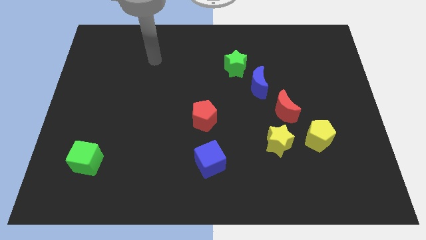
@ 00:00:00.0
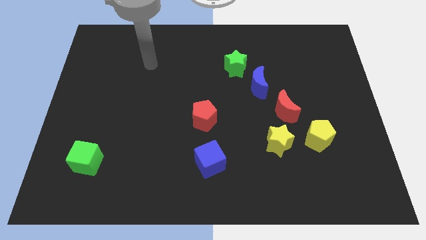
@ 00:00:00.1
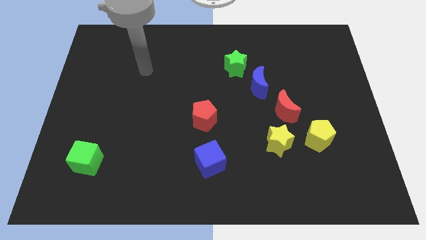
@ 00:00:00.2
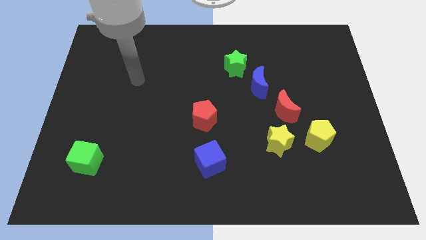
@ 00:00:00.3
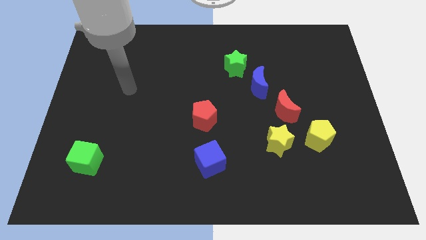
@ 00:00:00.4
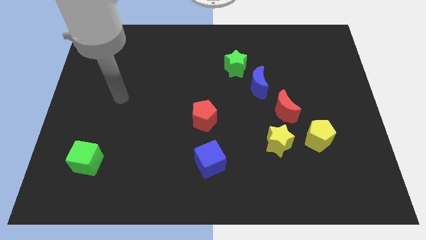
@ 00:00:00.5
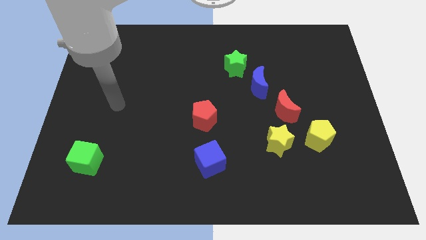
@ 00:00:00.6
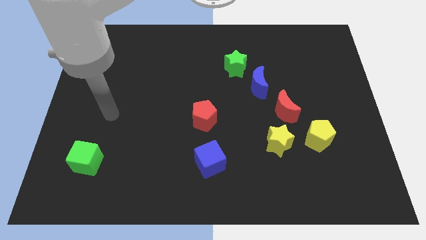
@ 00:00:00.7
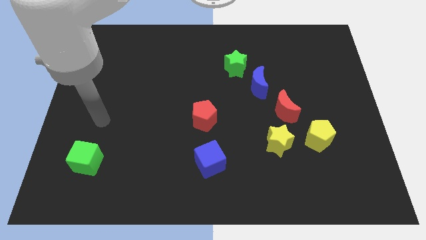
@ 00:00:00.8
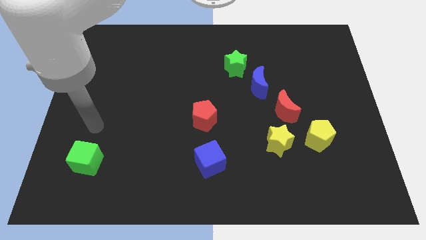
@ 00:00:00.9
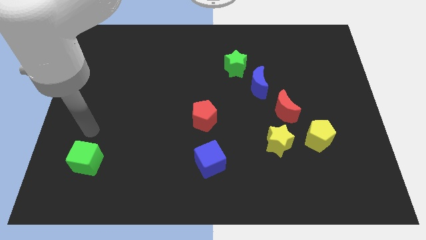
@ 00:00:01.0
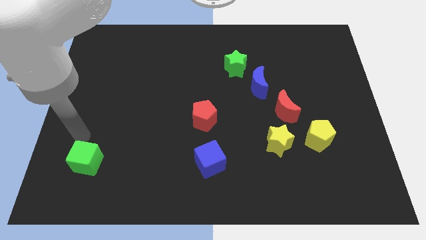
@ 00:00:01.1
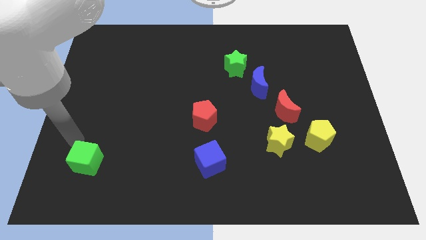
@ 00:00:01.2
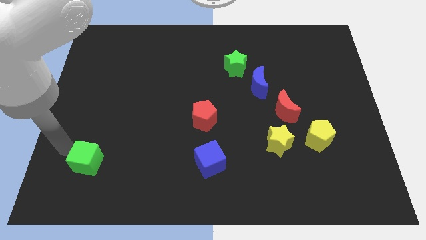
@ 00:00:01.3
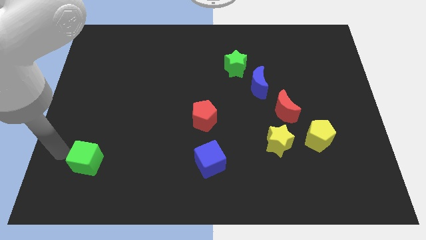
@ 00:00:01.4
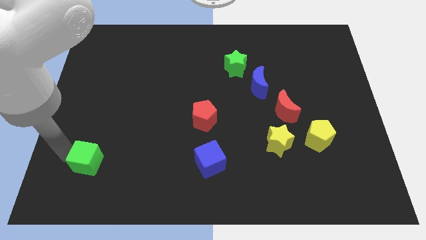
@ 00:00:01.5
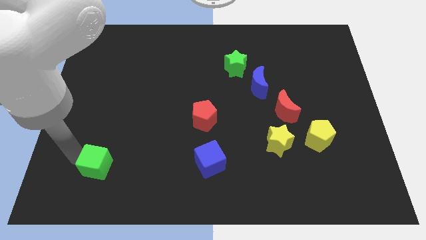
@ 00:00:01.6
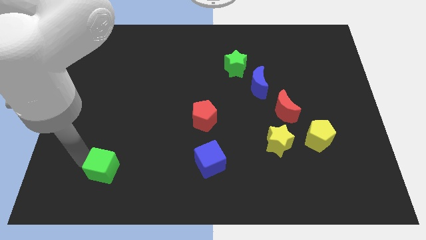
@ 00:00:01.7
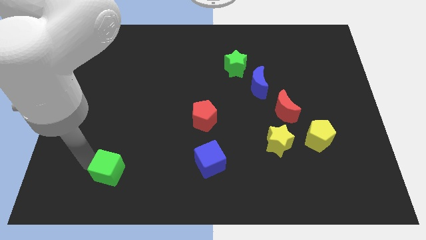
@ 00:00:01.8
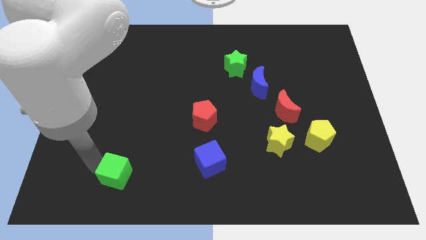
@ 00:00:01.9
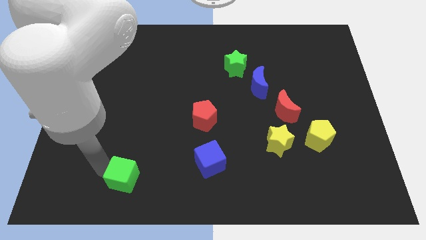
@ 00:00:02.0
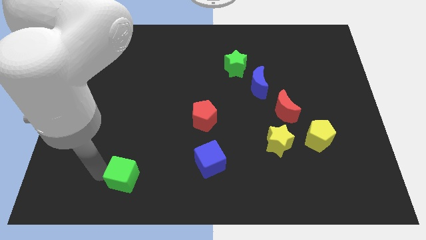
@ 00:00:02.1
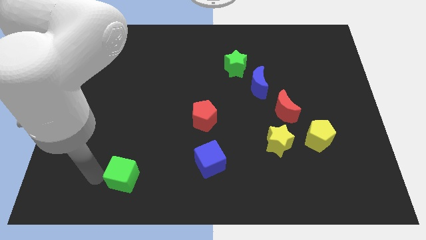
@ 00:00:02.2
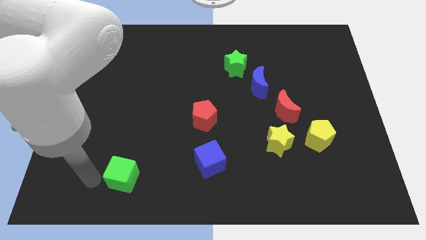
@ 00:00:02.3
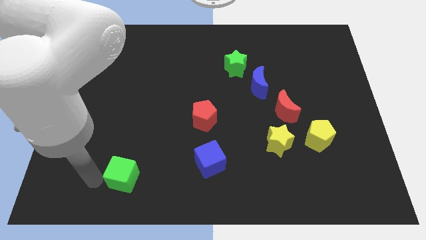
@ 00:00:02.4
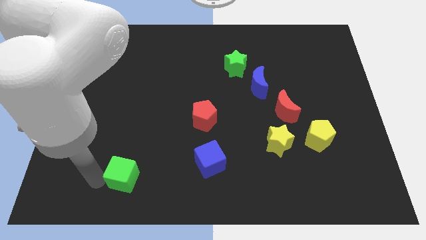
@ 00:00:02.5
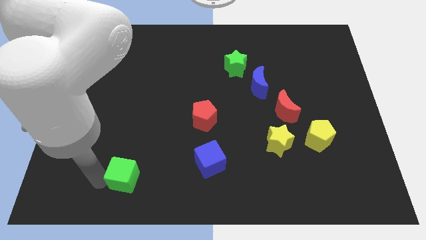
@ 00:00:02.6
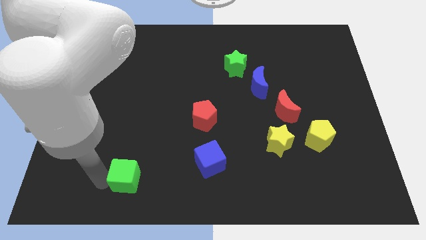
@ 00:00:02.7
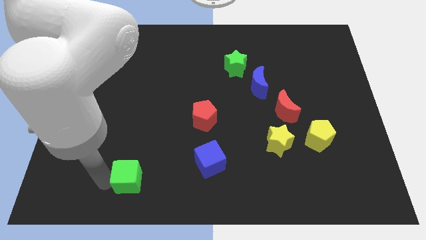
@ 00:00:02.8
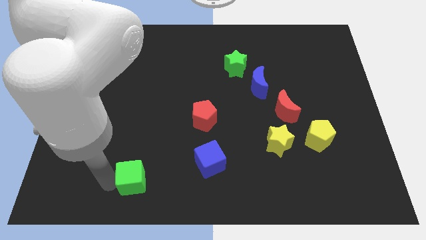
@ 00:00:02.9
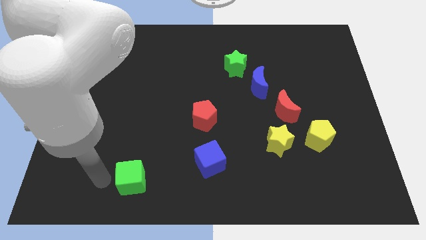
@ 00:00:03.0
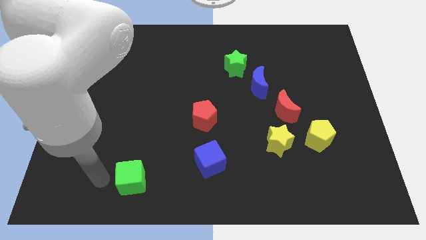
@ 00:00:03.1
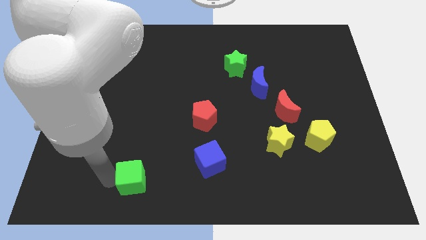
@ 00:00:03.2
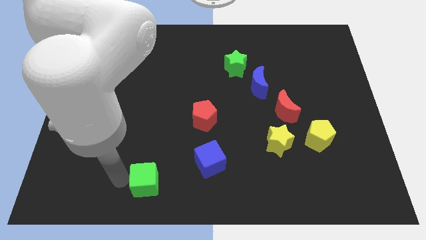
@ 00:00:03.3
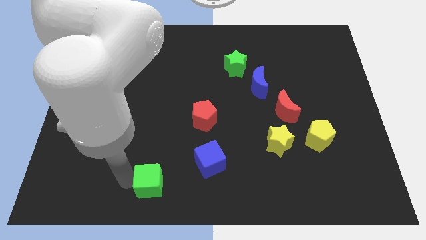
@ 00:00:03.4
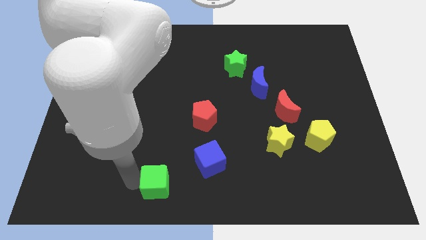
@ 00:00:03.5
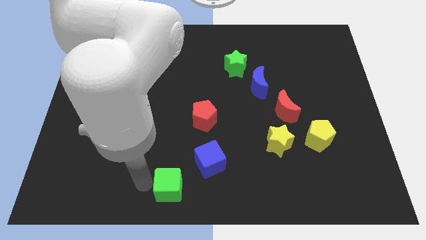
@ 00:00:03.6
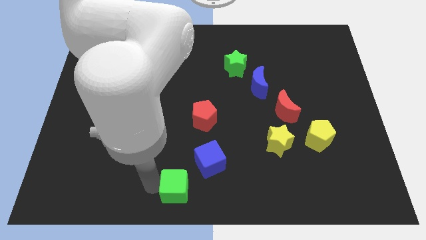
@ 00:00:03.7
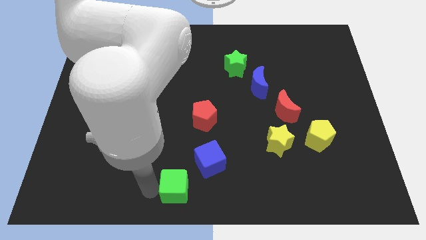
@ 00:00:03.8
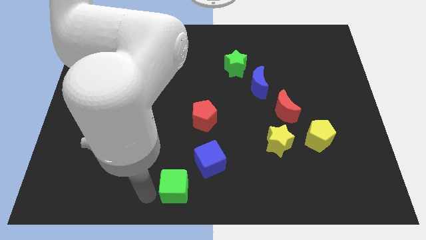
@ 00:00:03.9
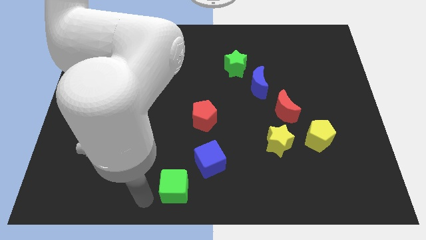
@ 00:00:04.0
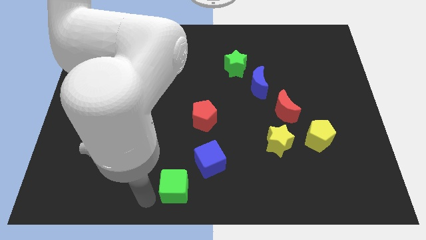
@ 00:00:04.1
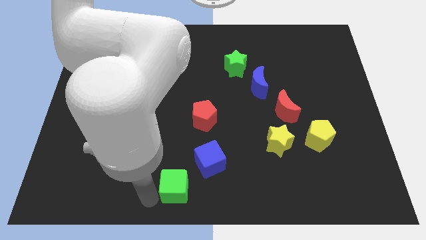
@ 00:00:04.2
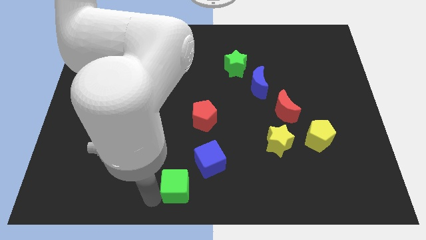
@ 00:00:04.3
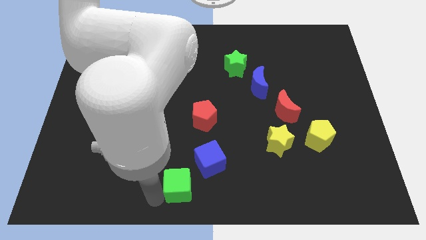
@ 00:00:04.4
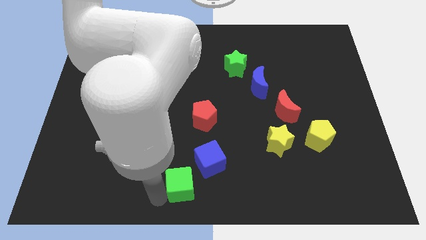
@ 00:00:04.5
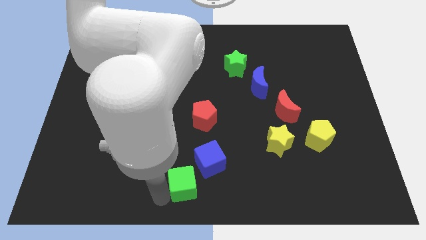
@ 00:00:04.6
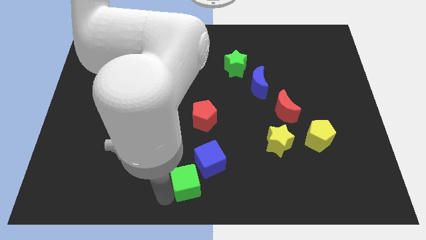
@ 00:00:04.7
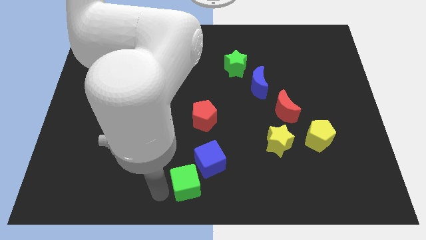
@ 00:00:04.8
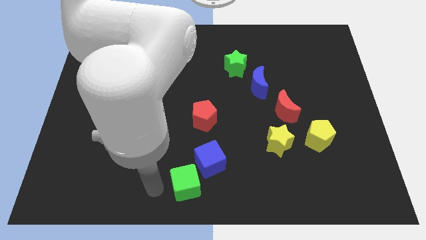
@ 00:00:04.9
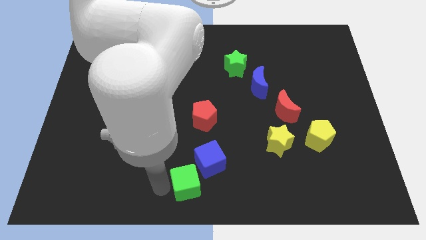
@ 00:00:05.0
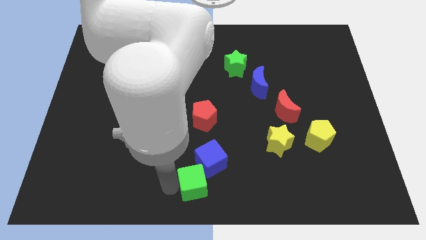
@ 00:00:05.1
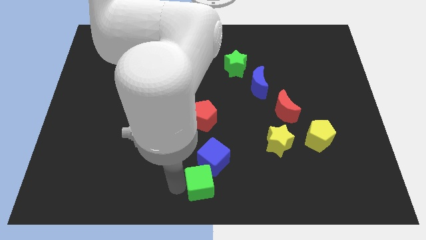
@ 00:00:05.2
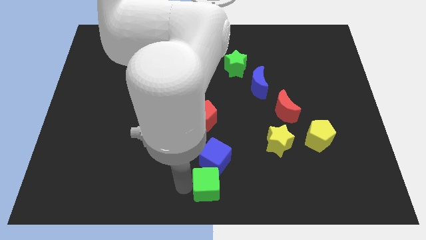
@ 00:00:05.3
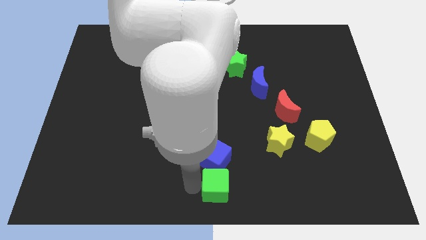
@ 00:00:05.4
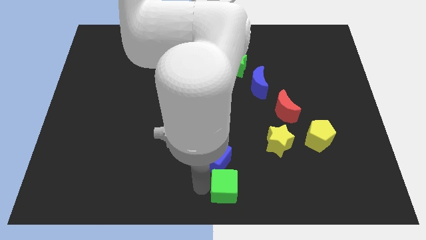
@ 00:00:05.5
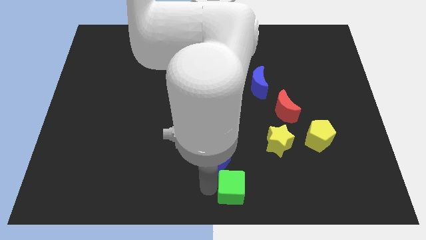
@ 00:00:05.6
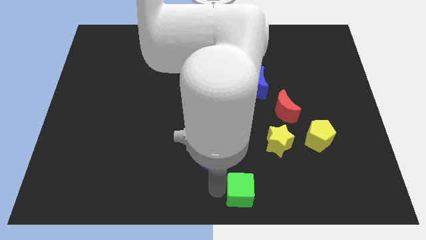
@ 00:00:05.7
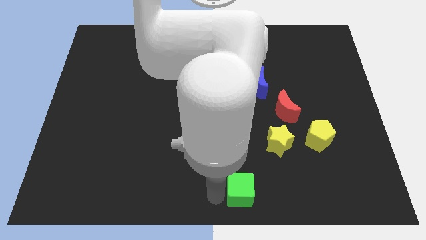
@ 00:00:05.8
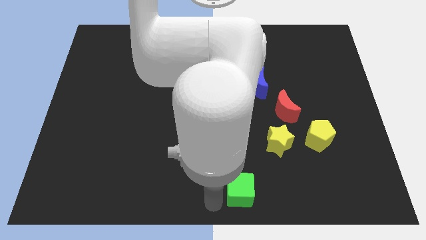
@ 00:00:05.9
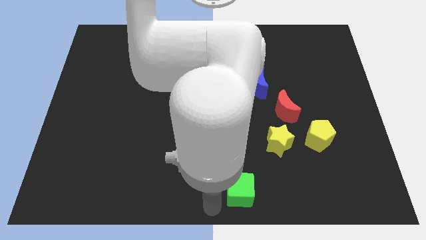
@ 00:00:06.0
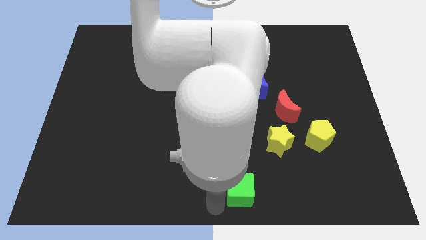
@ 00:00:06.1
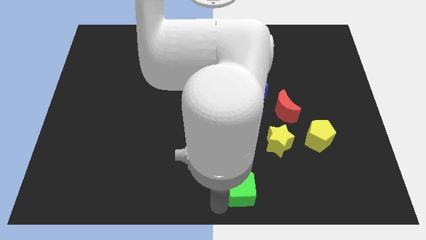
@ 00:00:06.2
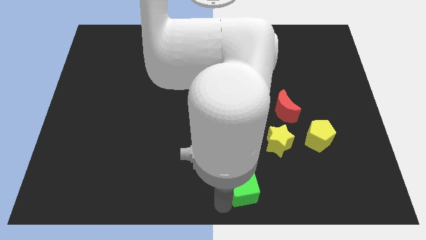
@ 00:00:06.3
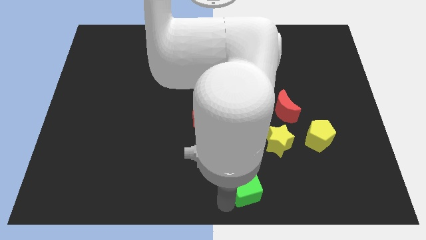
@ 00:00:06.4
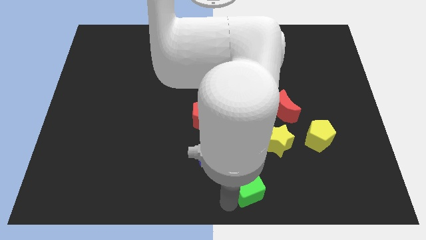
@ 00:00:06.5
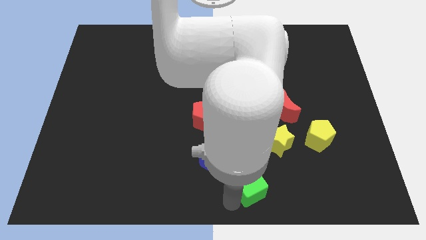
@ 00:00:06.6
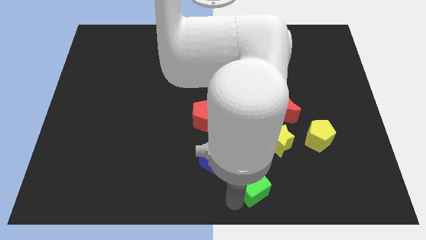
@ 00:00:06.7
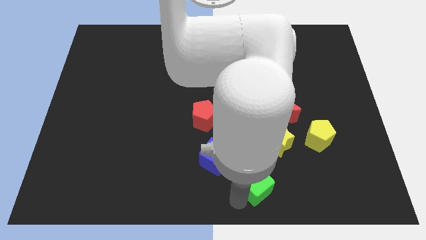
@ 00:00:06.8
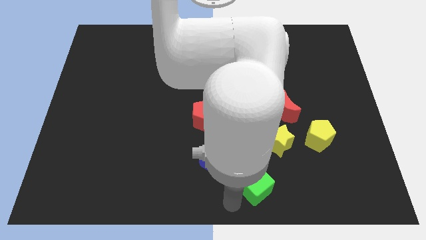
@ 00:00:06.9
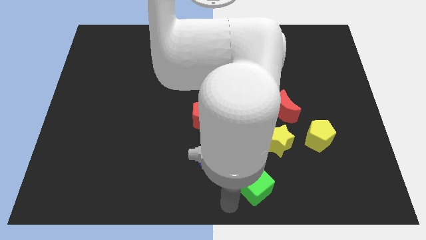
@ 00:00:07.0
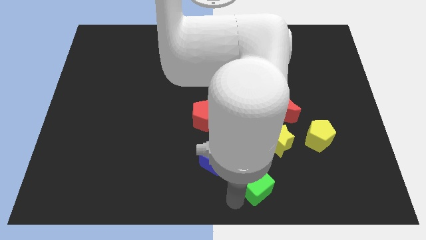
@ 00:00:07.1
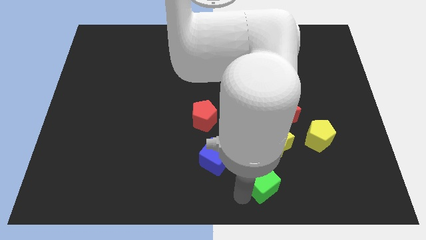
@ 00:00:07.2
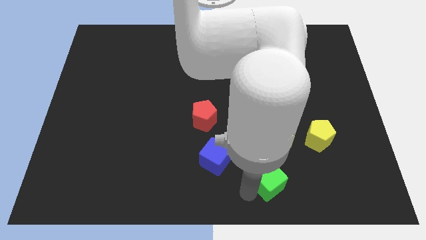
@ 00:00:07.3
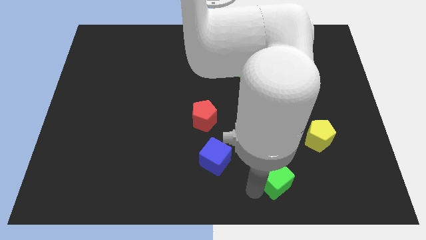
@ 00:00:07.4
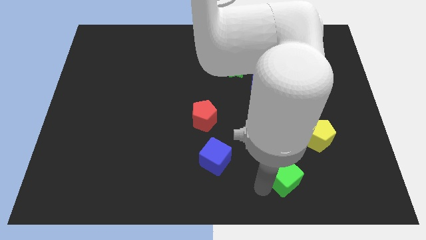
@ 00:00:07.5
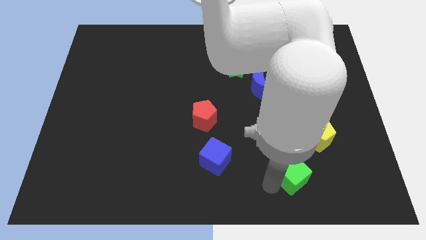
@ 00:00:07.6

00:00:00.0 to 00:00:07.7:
slide the green cube diagonally down and to the left of the yellow pentagon
